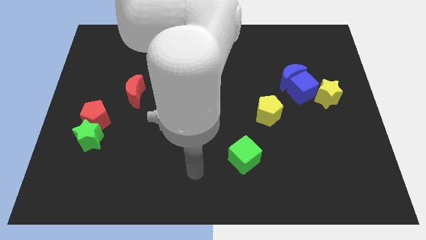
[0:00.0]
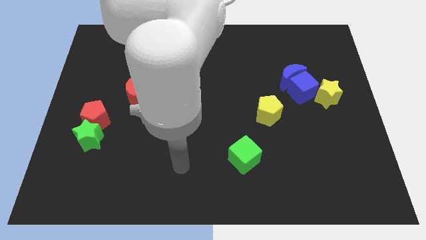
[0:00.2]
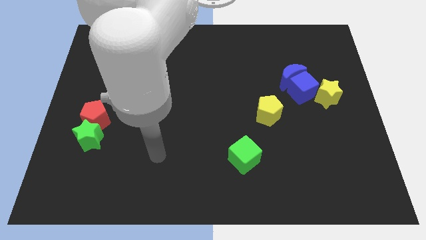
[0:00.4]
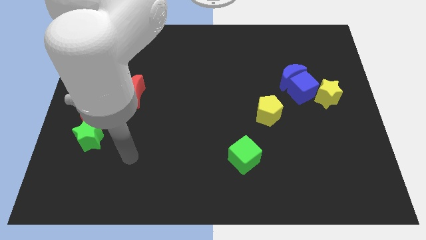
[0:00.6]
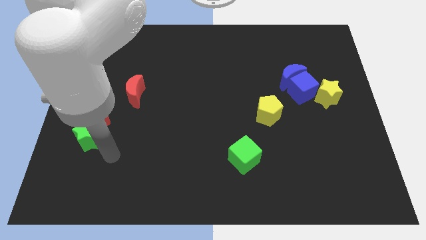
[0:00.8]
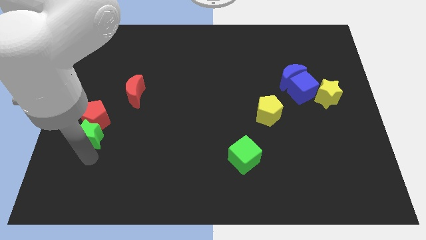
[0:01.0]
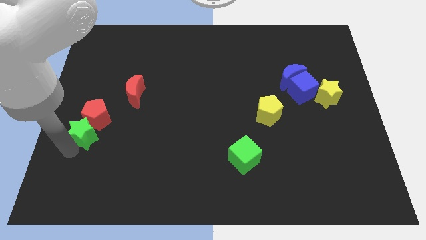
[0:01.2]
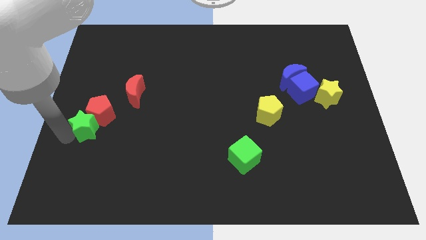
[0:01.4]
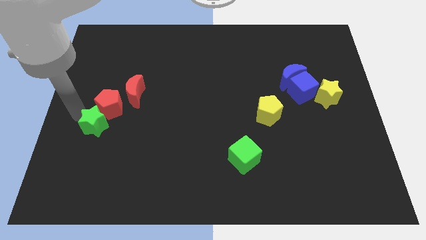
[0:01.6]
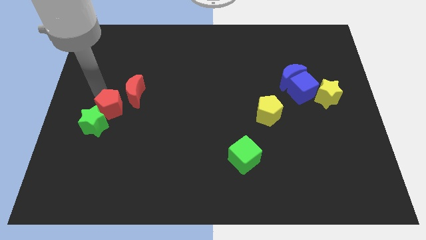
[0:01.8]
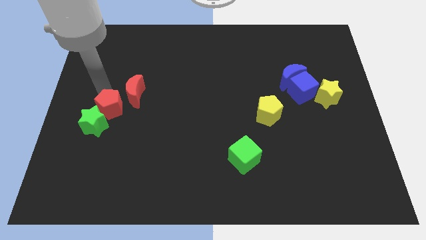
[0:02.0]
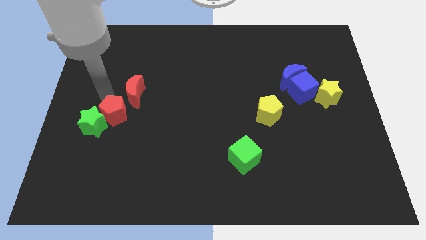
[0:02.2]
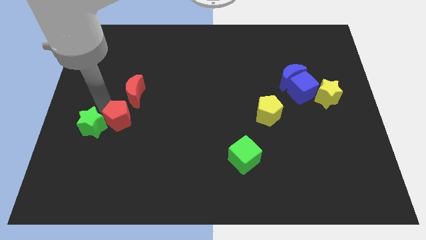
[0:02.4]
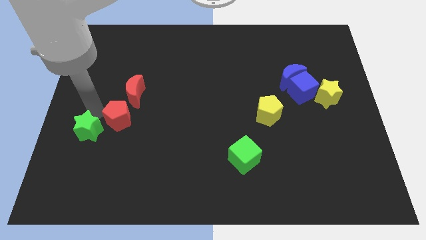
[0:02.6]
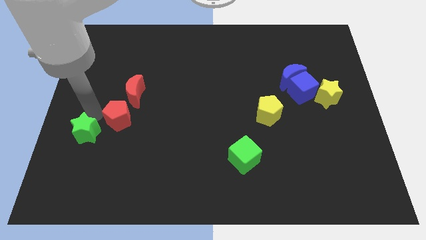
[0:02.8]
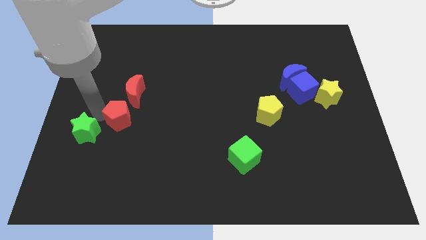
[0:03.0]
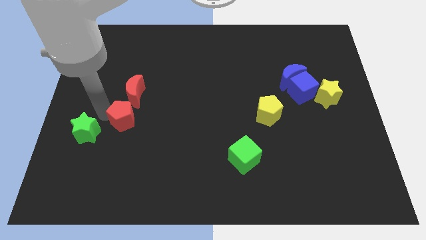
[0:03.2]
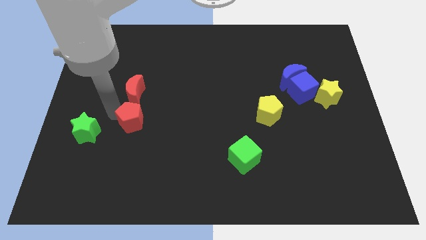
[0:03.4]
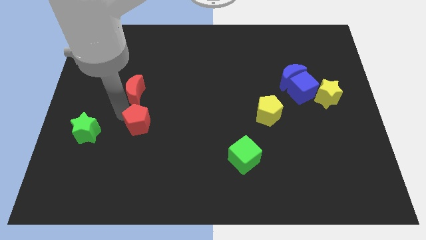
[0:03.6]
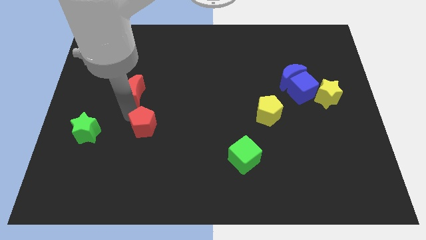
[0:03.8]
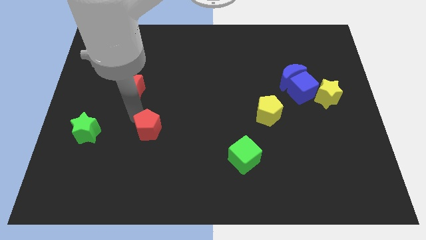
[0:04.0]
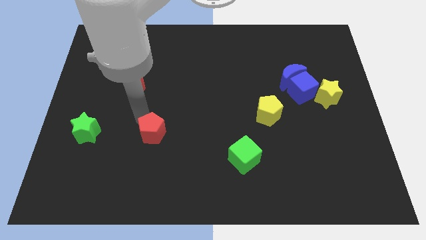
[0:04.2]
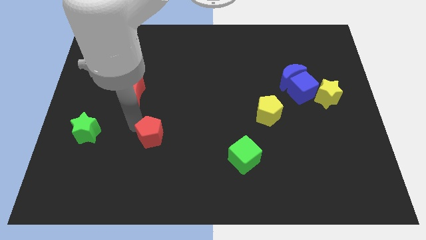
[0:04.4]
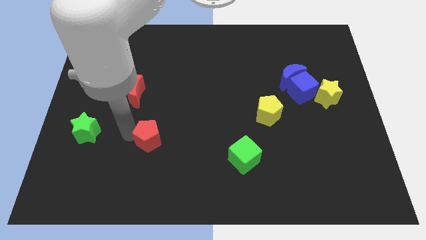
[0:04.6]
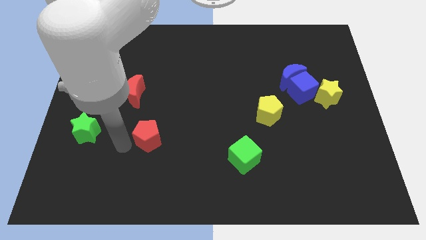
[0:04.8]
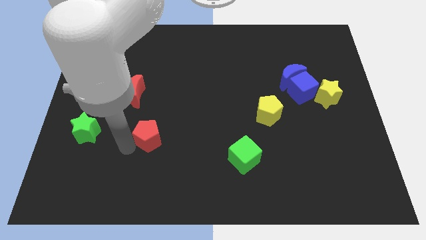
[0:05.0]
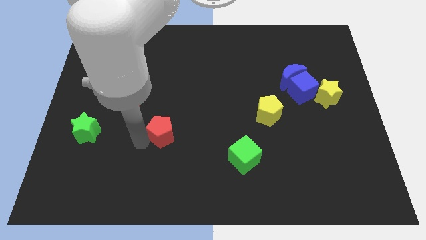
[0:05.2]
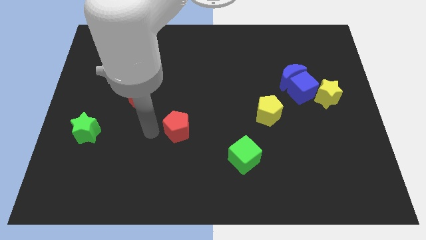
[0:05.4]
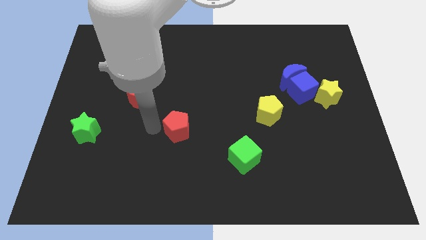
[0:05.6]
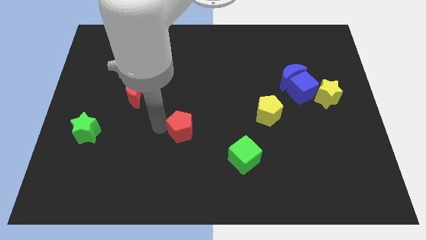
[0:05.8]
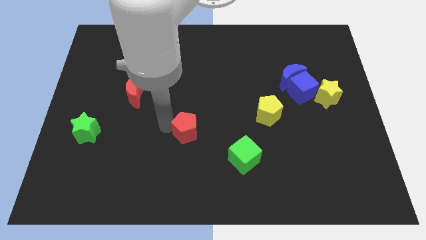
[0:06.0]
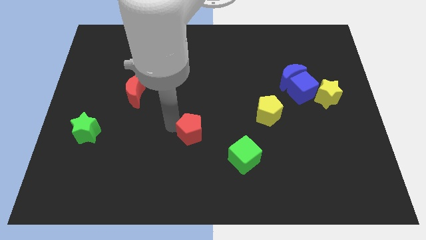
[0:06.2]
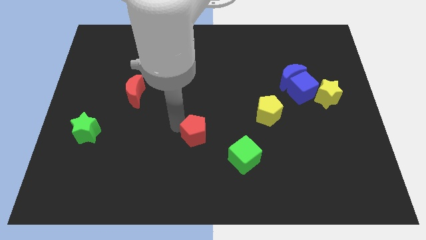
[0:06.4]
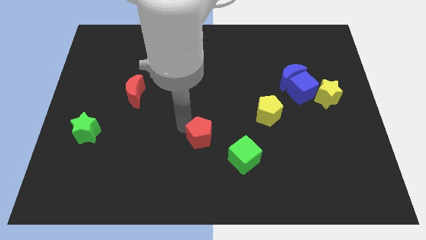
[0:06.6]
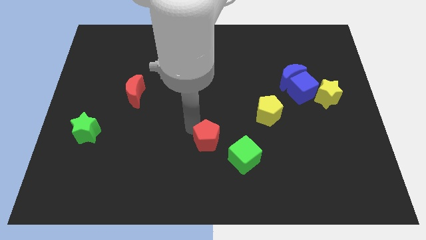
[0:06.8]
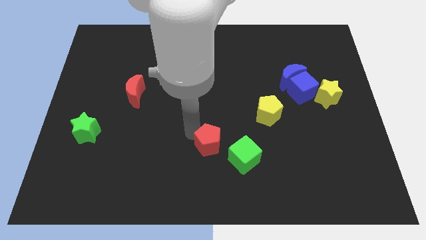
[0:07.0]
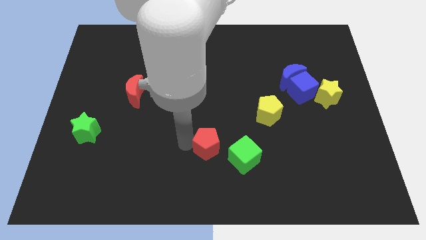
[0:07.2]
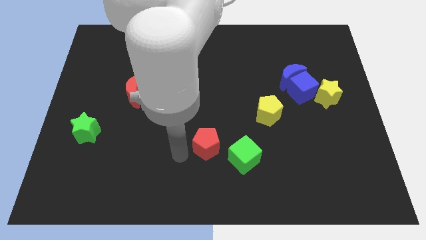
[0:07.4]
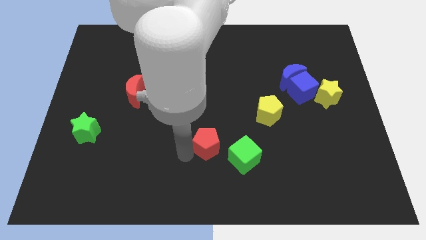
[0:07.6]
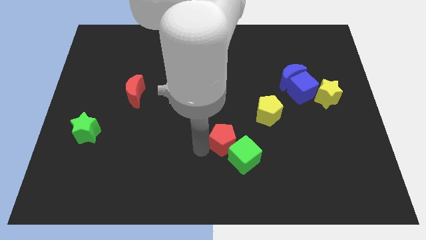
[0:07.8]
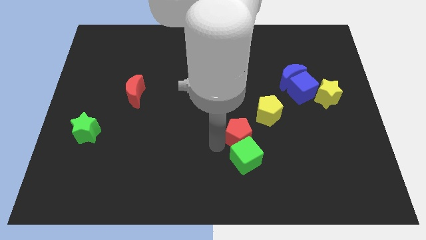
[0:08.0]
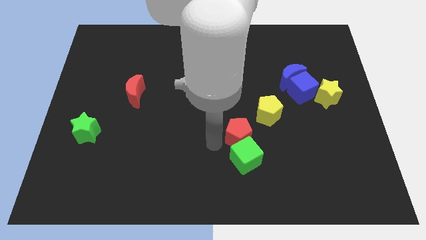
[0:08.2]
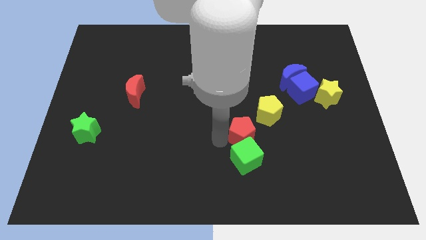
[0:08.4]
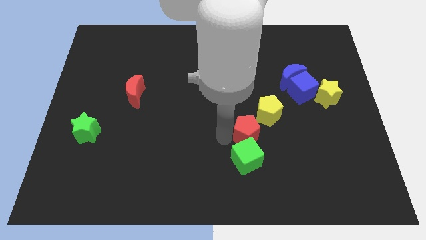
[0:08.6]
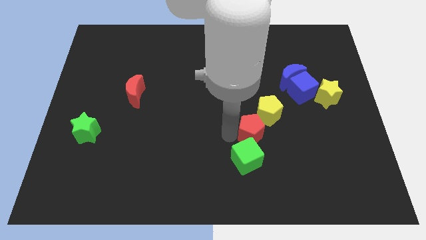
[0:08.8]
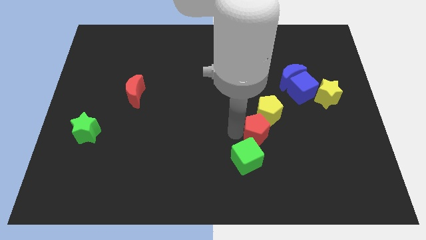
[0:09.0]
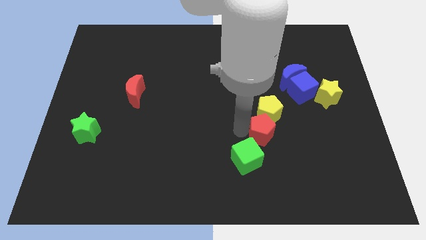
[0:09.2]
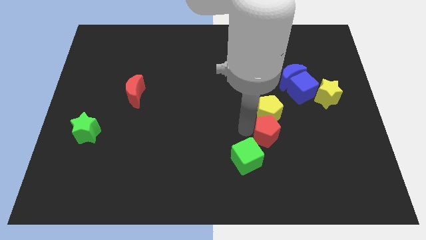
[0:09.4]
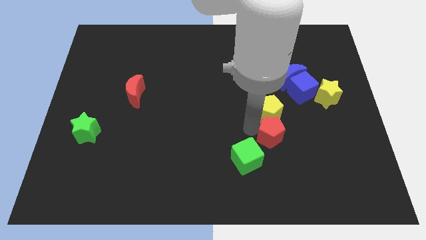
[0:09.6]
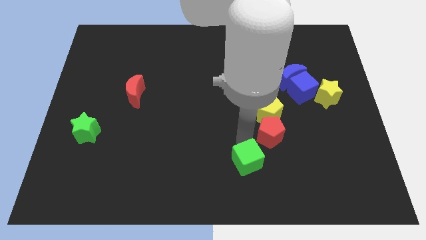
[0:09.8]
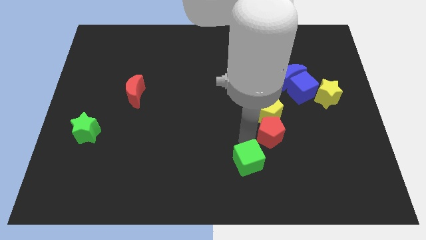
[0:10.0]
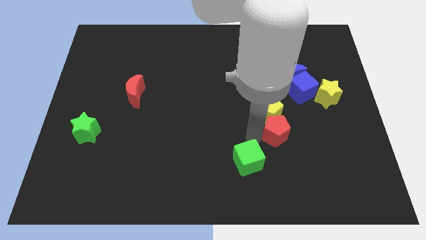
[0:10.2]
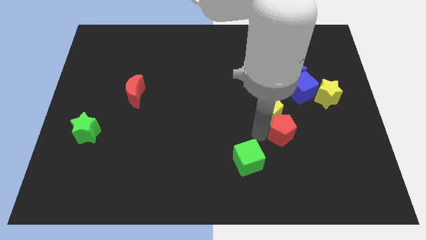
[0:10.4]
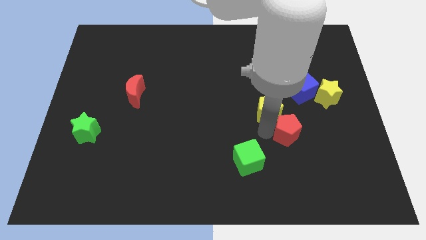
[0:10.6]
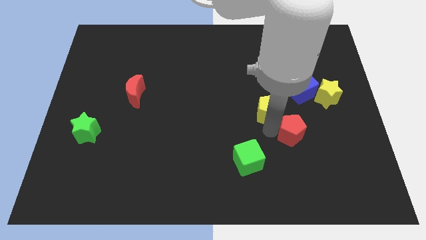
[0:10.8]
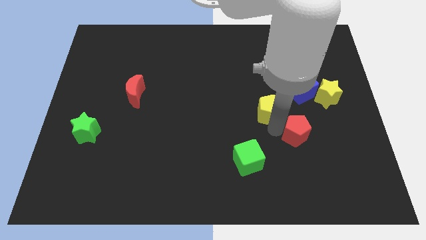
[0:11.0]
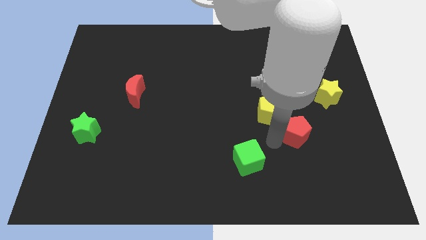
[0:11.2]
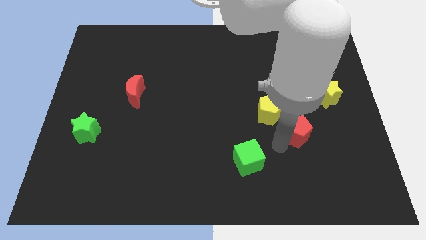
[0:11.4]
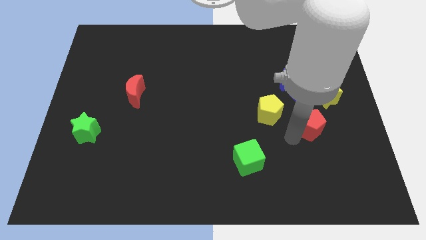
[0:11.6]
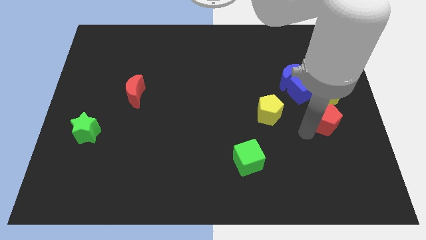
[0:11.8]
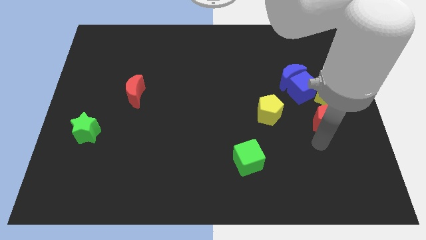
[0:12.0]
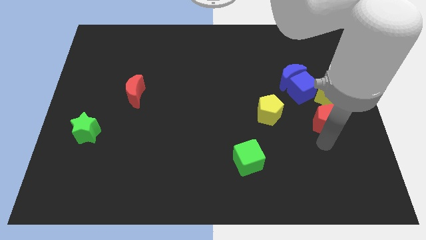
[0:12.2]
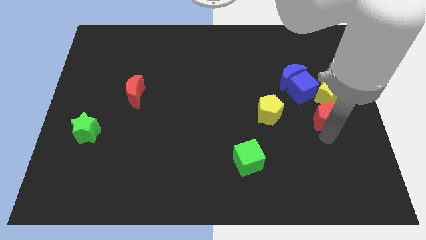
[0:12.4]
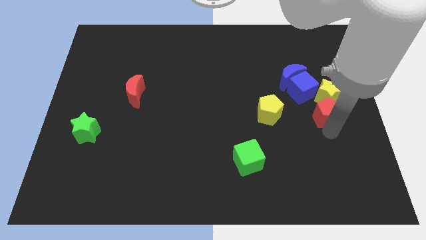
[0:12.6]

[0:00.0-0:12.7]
slide the red pentagon close to the yellow star
